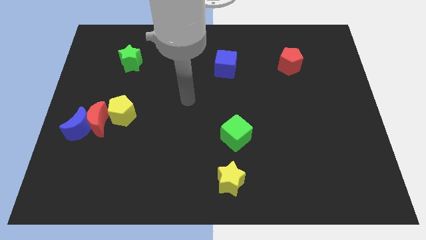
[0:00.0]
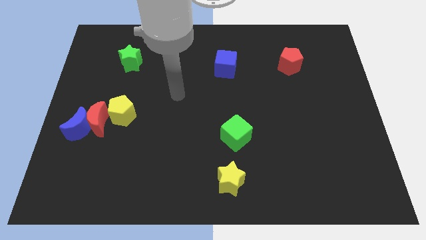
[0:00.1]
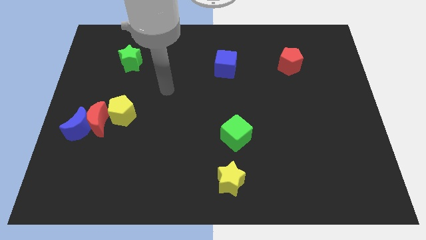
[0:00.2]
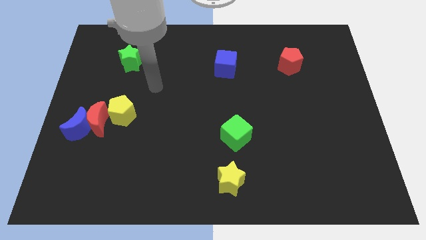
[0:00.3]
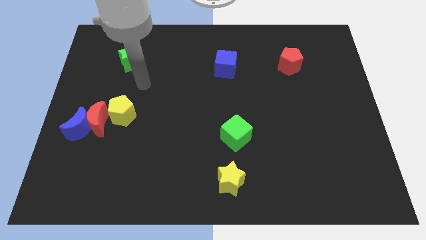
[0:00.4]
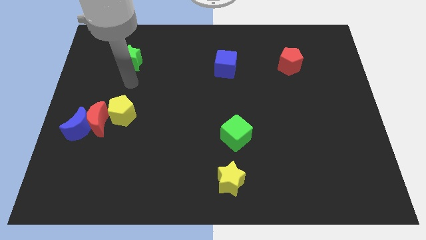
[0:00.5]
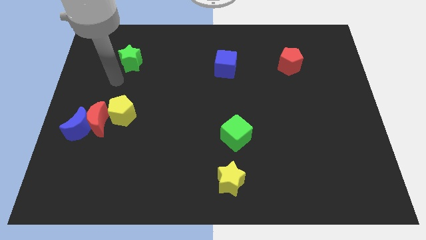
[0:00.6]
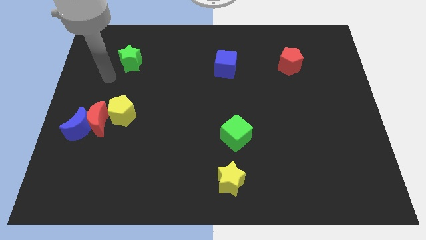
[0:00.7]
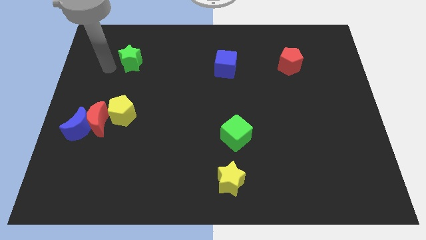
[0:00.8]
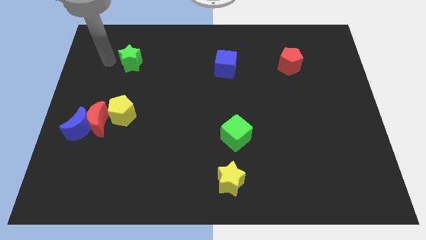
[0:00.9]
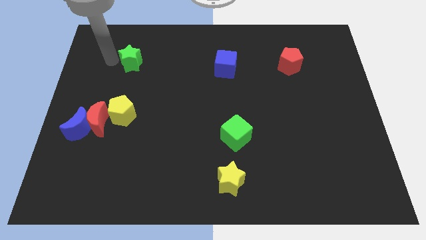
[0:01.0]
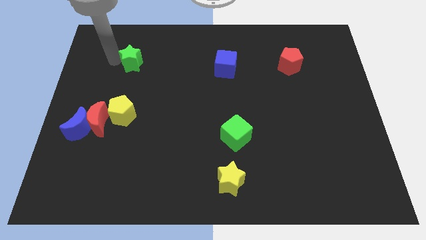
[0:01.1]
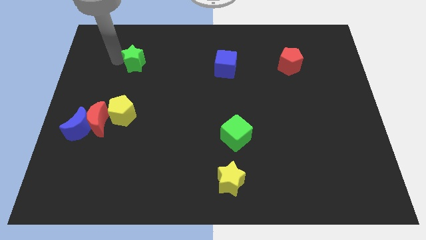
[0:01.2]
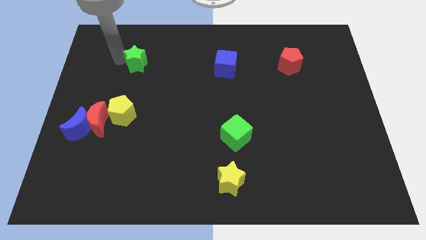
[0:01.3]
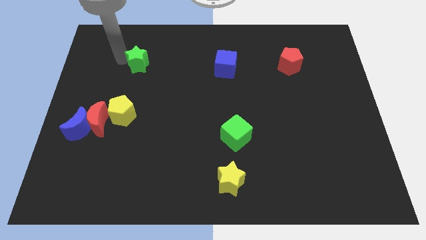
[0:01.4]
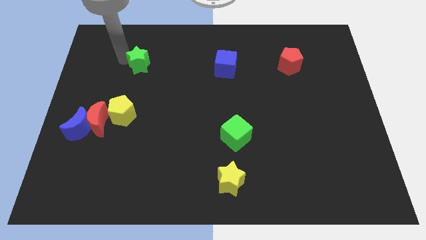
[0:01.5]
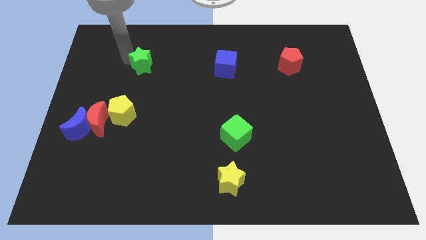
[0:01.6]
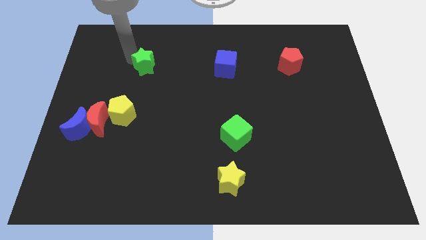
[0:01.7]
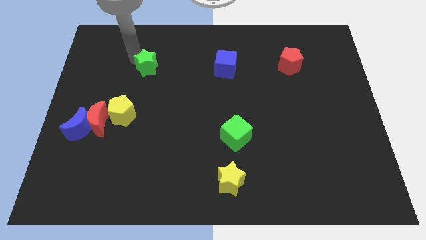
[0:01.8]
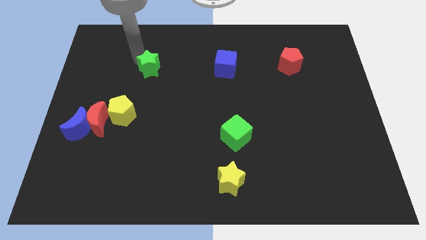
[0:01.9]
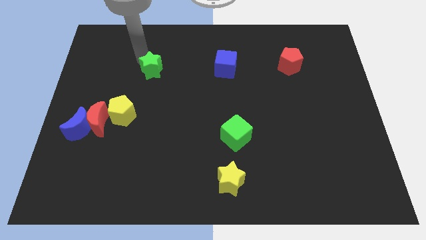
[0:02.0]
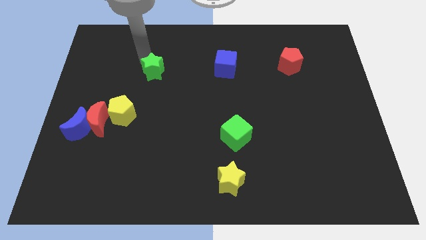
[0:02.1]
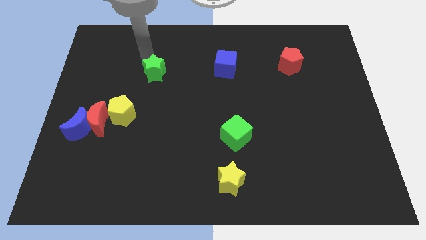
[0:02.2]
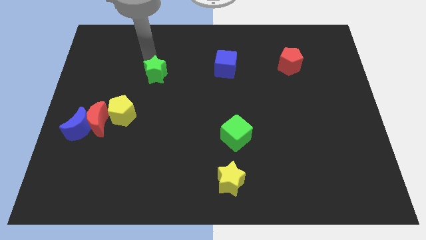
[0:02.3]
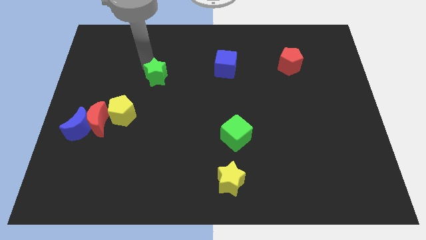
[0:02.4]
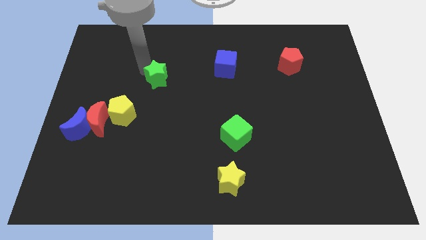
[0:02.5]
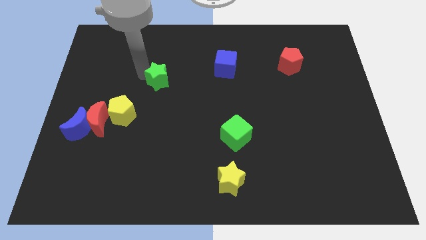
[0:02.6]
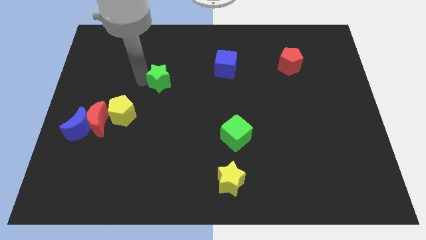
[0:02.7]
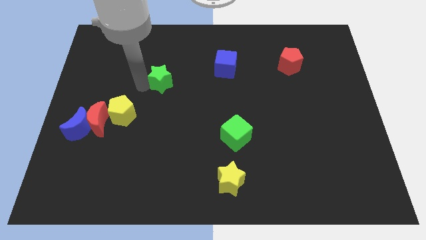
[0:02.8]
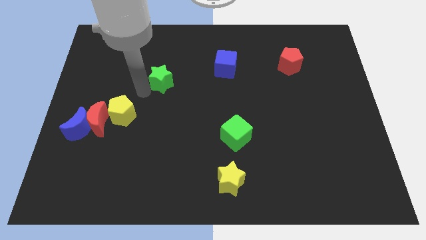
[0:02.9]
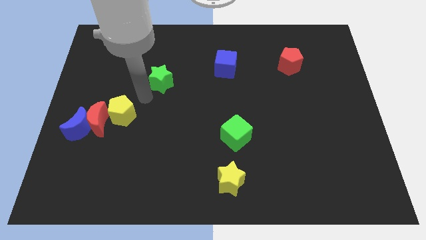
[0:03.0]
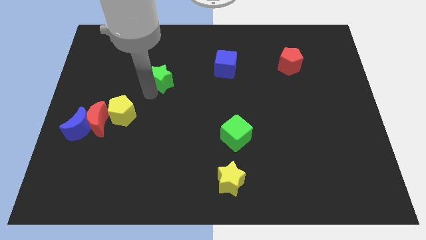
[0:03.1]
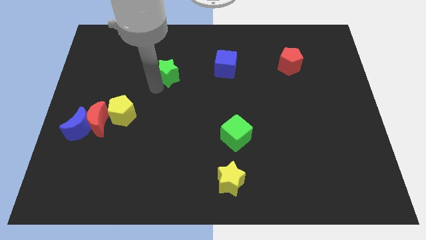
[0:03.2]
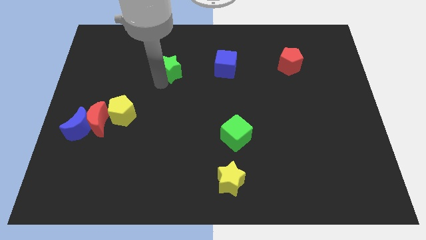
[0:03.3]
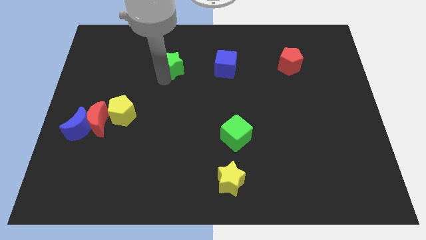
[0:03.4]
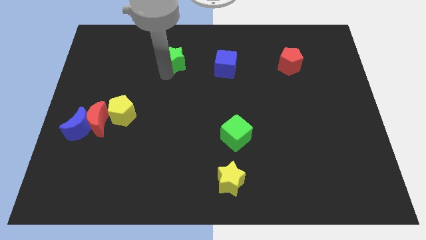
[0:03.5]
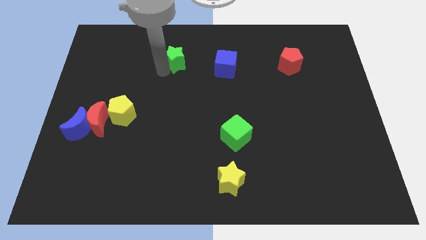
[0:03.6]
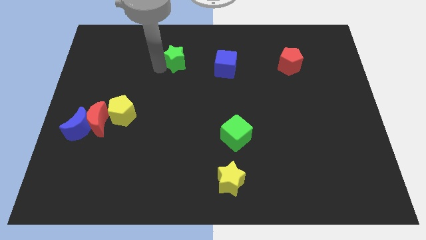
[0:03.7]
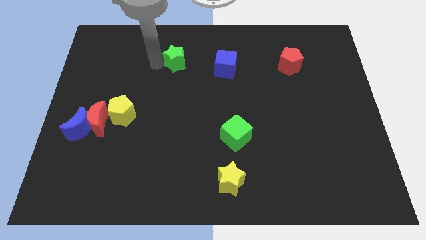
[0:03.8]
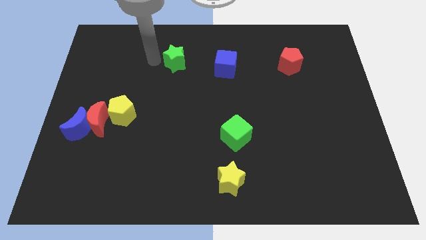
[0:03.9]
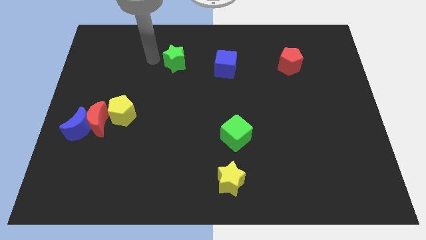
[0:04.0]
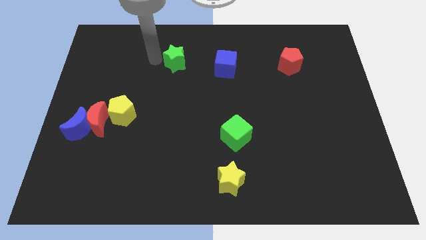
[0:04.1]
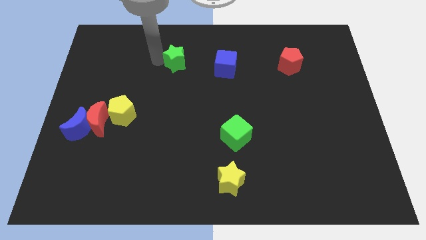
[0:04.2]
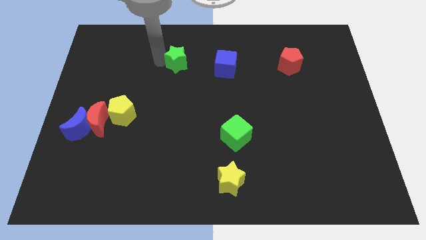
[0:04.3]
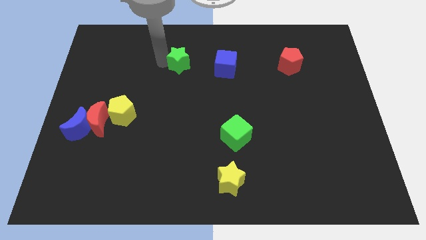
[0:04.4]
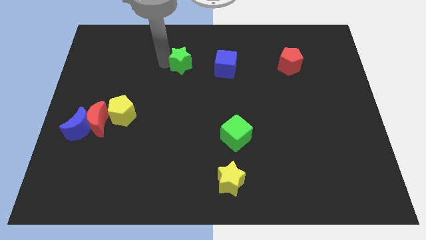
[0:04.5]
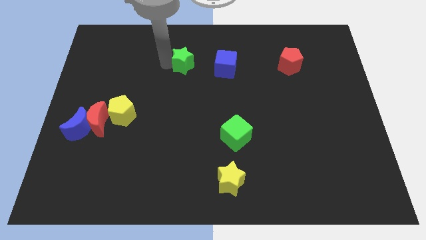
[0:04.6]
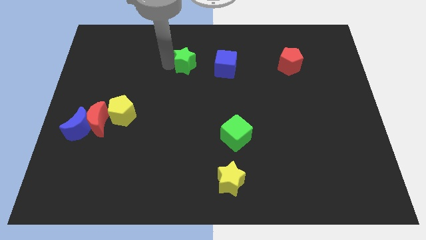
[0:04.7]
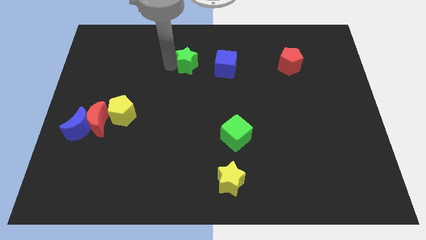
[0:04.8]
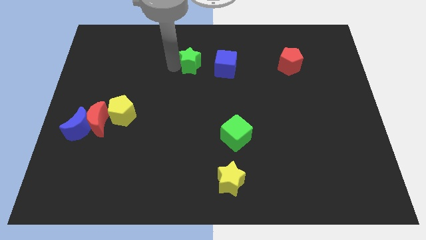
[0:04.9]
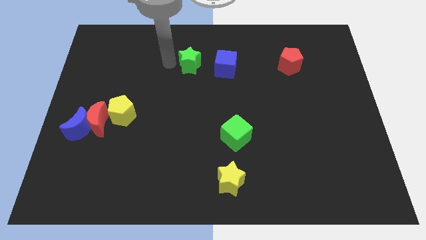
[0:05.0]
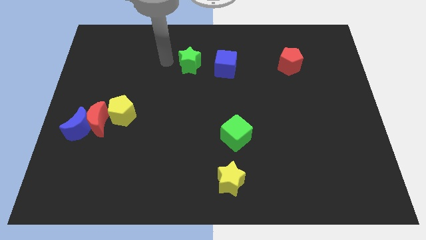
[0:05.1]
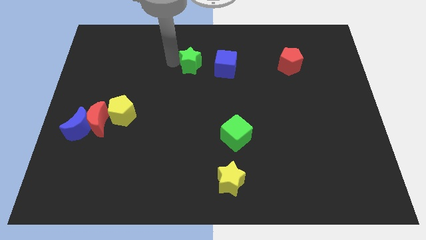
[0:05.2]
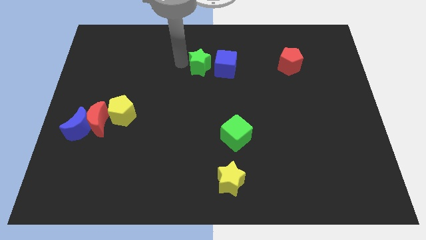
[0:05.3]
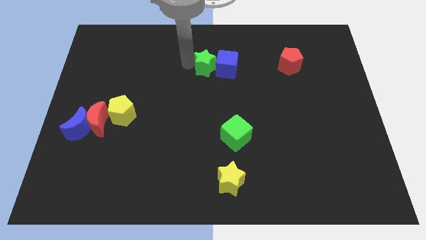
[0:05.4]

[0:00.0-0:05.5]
push the green star to the blue cube

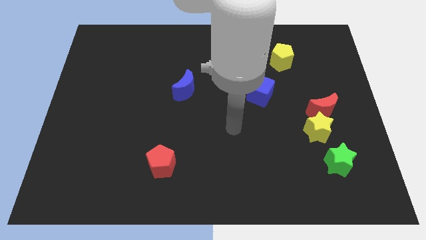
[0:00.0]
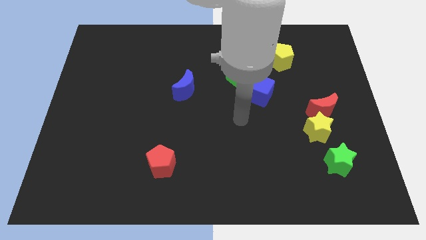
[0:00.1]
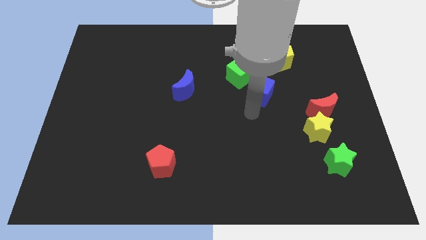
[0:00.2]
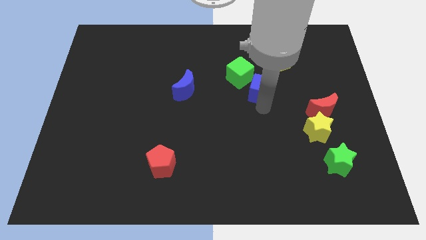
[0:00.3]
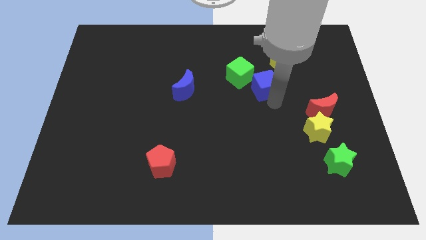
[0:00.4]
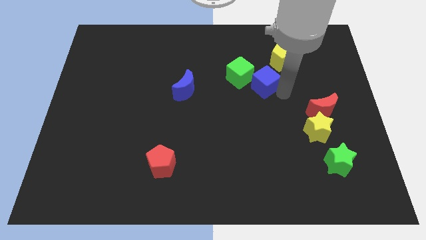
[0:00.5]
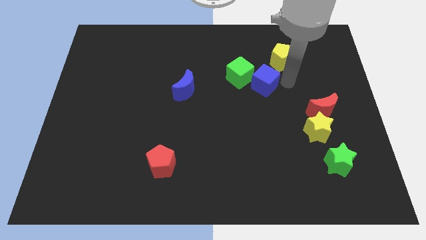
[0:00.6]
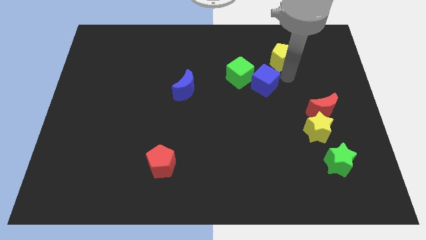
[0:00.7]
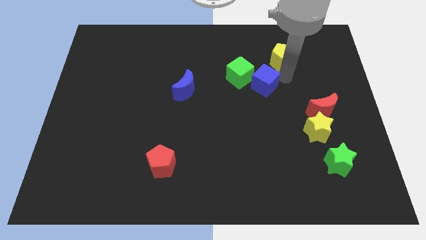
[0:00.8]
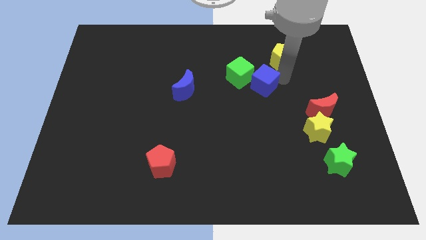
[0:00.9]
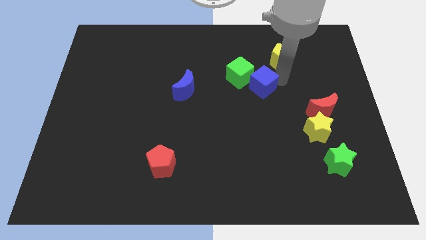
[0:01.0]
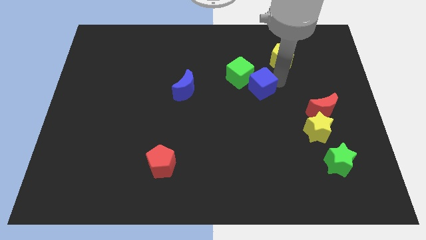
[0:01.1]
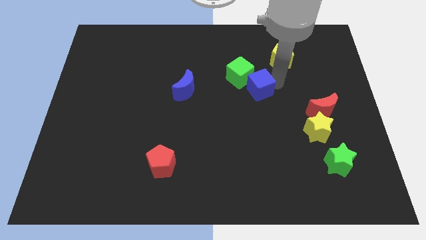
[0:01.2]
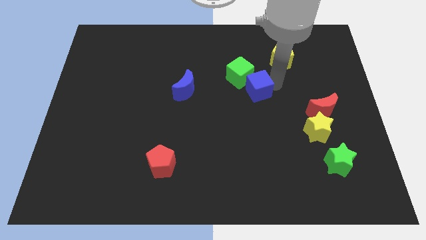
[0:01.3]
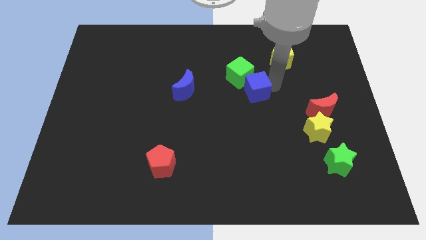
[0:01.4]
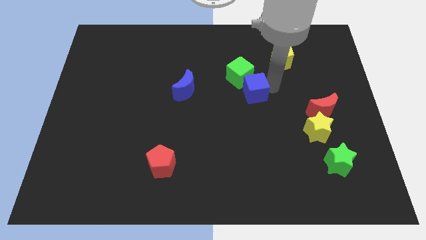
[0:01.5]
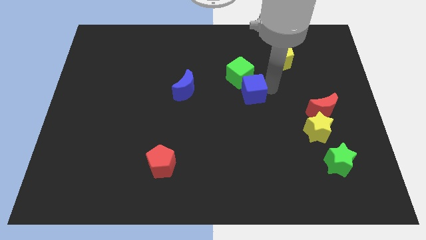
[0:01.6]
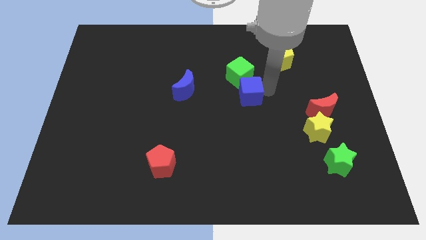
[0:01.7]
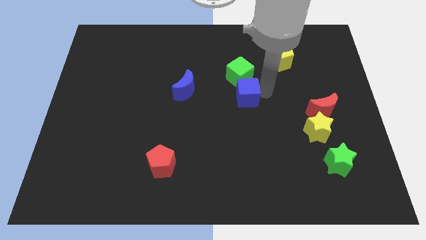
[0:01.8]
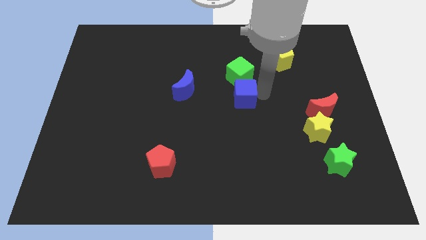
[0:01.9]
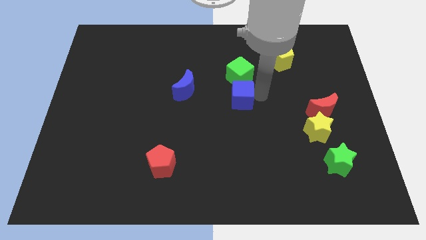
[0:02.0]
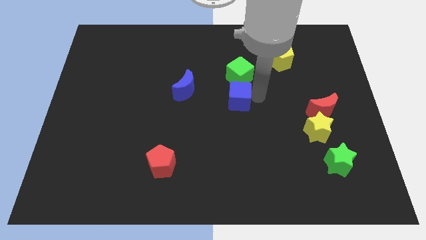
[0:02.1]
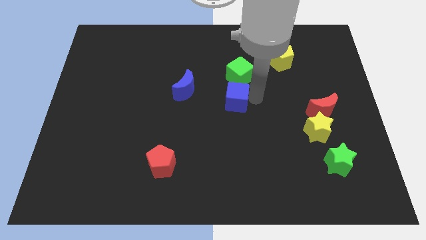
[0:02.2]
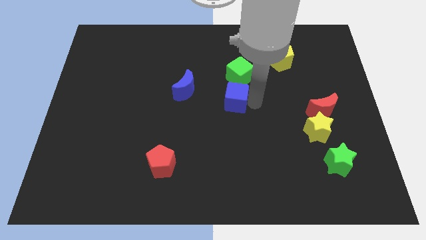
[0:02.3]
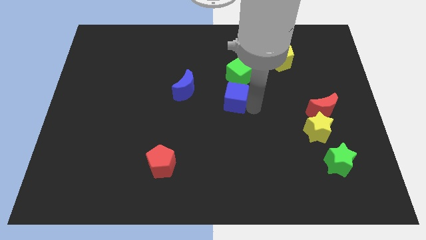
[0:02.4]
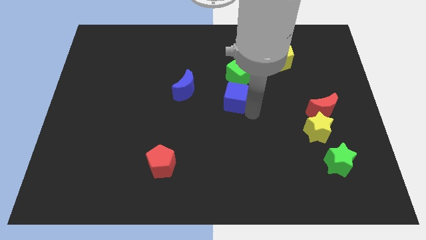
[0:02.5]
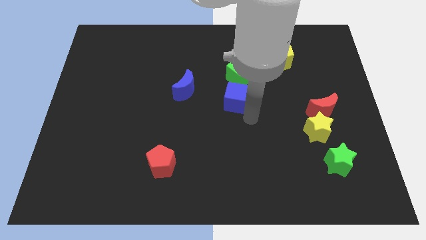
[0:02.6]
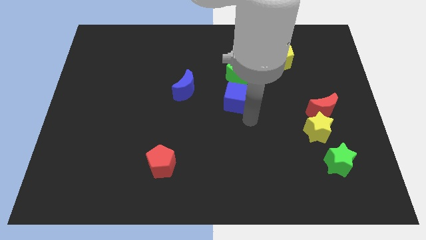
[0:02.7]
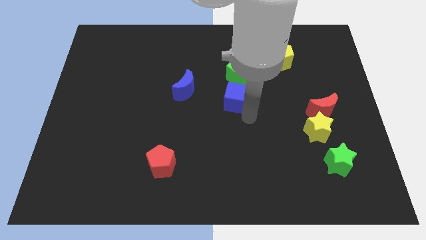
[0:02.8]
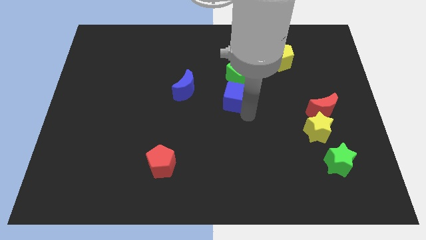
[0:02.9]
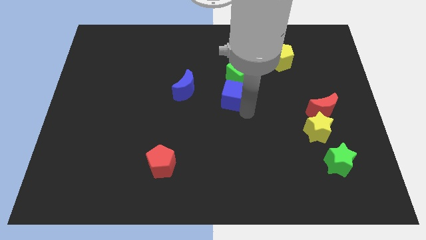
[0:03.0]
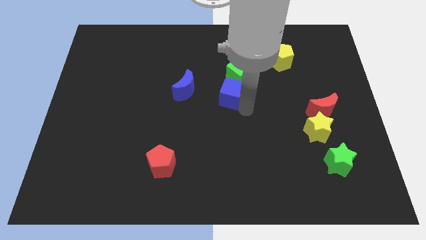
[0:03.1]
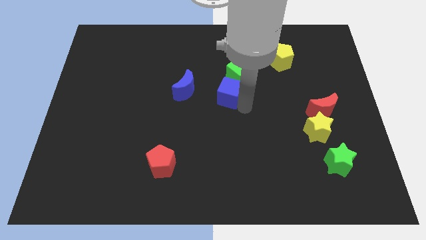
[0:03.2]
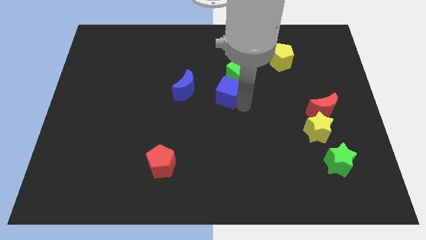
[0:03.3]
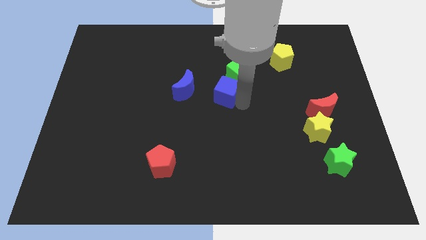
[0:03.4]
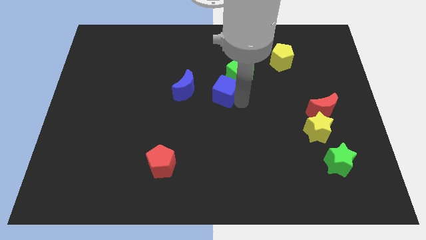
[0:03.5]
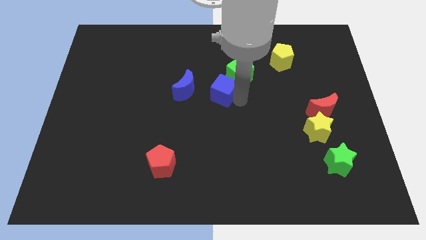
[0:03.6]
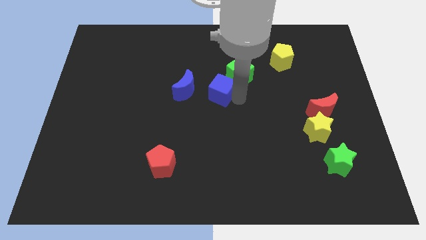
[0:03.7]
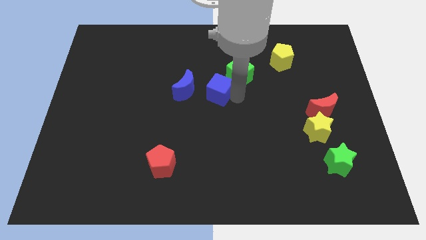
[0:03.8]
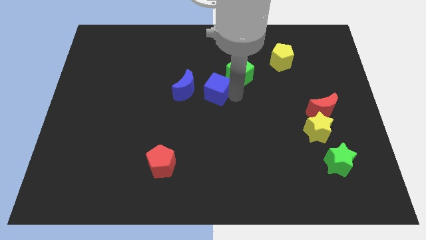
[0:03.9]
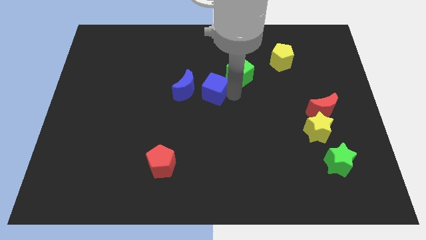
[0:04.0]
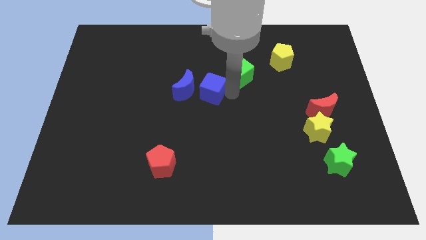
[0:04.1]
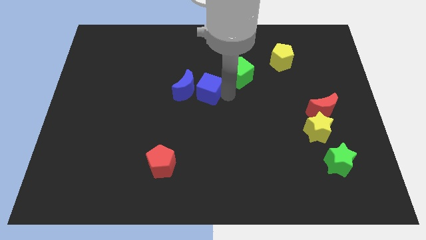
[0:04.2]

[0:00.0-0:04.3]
push the blue cube close to the blue moon
